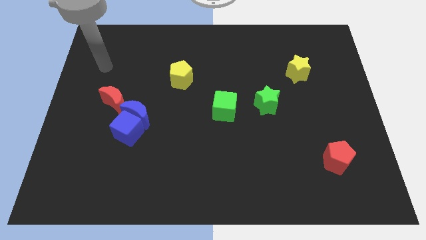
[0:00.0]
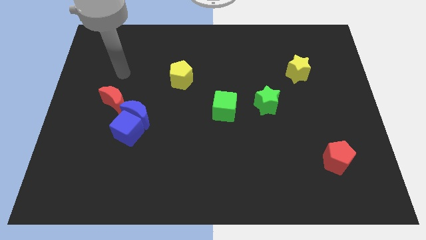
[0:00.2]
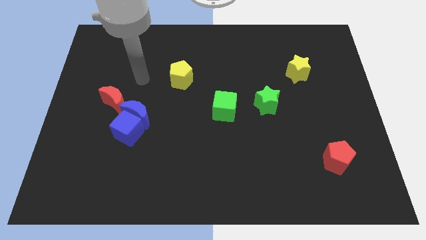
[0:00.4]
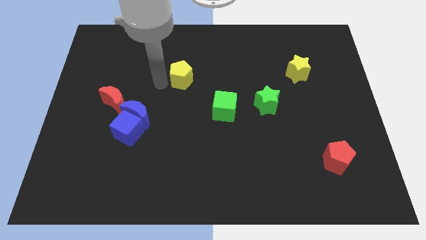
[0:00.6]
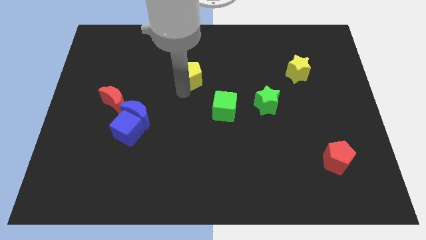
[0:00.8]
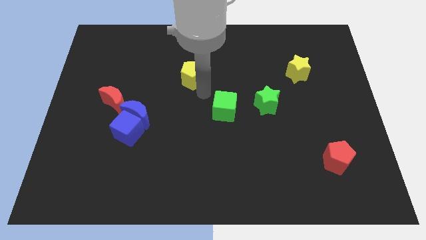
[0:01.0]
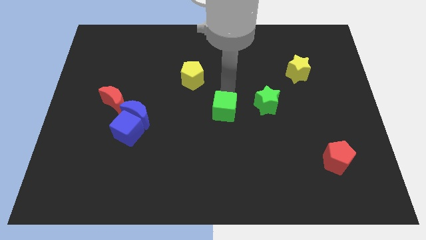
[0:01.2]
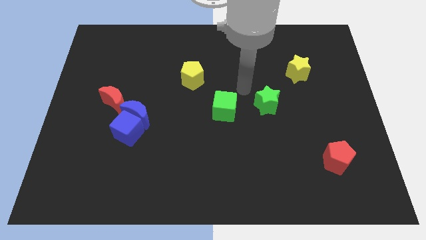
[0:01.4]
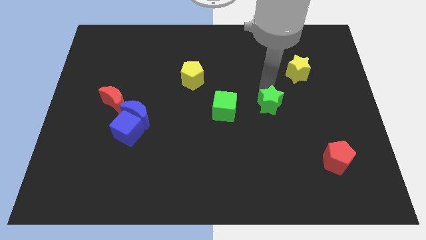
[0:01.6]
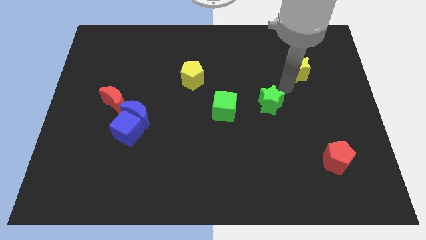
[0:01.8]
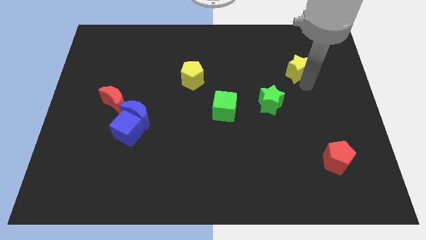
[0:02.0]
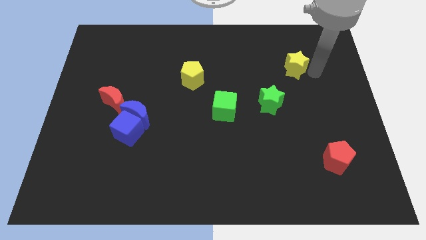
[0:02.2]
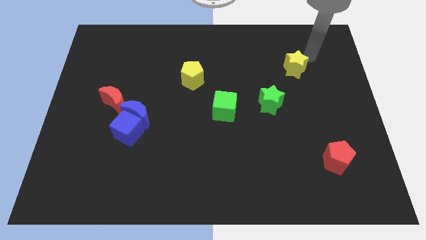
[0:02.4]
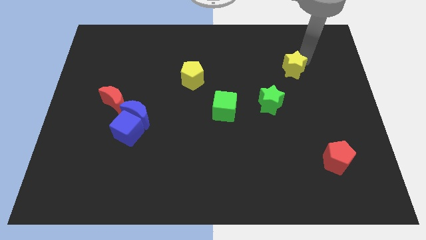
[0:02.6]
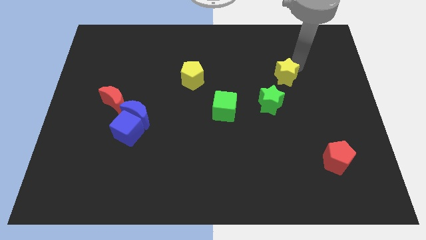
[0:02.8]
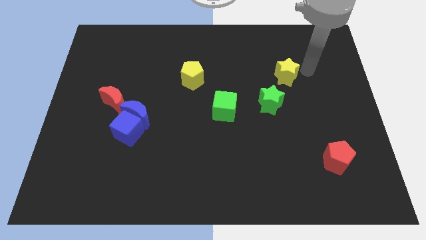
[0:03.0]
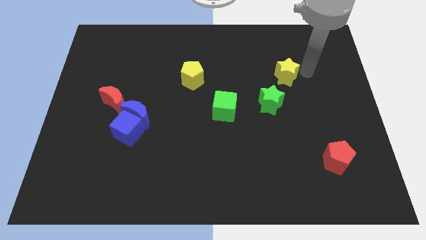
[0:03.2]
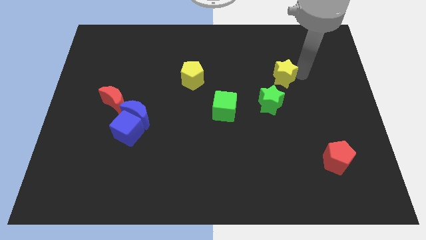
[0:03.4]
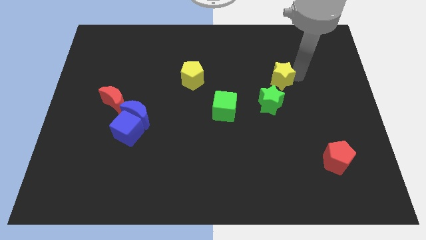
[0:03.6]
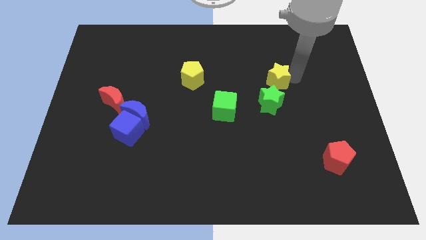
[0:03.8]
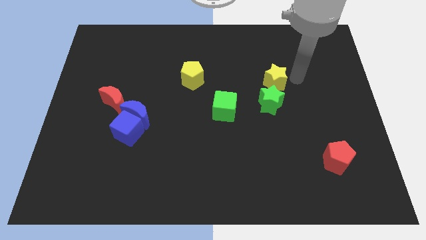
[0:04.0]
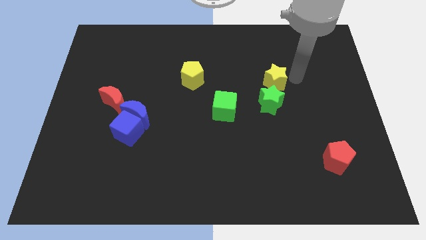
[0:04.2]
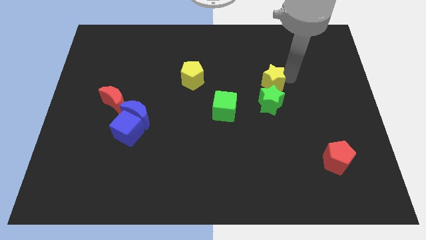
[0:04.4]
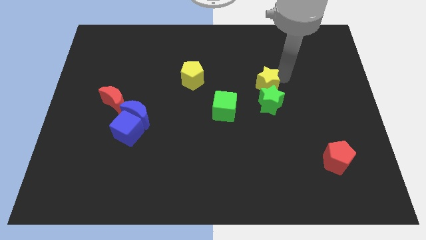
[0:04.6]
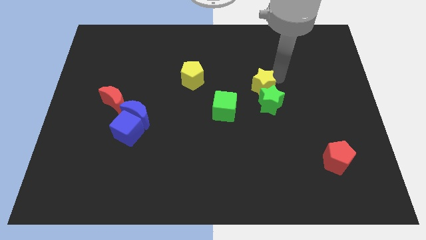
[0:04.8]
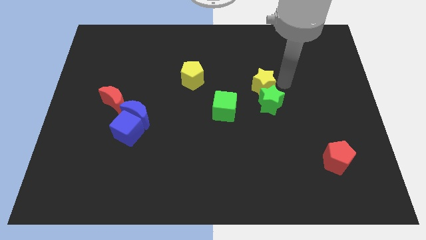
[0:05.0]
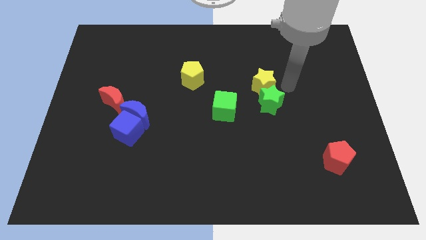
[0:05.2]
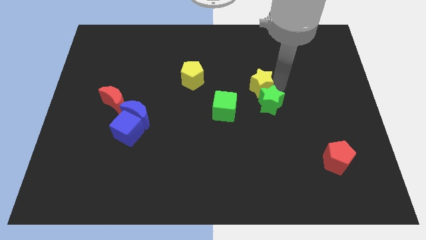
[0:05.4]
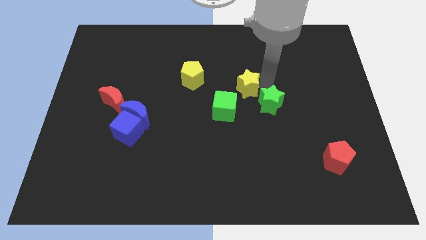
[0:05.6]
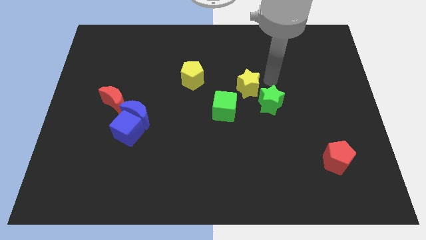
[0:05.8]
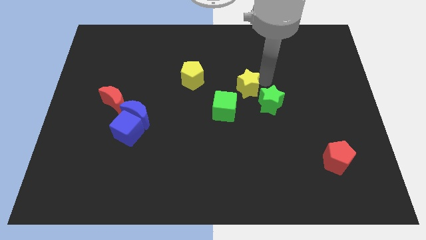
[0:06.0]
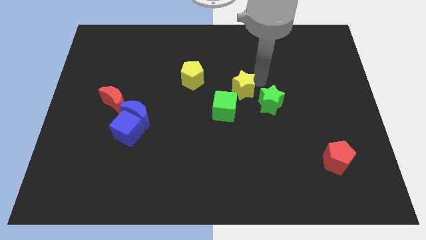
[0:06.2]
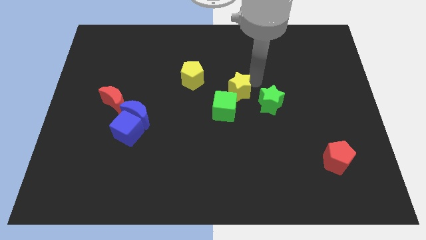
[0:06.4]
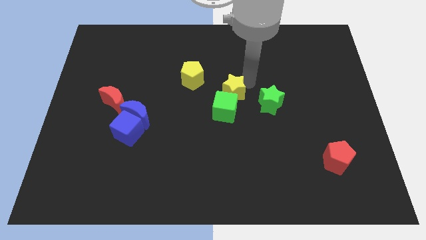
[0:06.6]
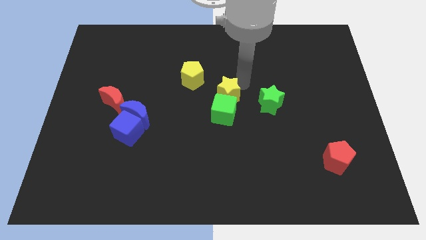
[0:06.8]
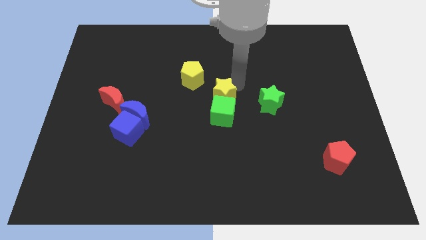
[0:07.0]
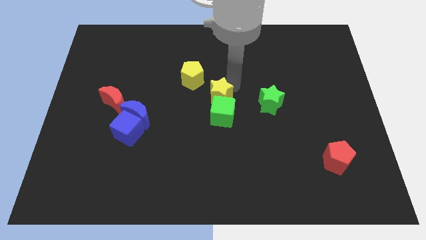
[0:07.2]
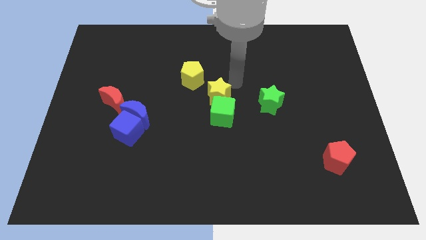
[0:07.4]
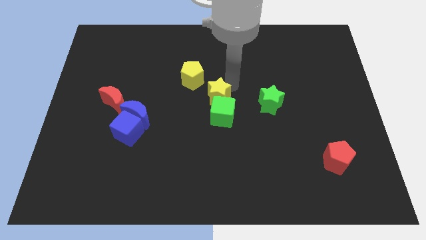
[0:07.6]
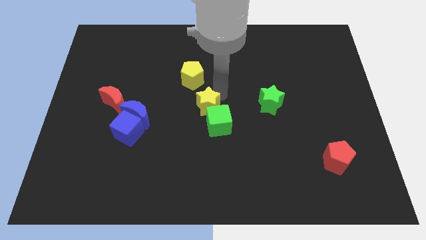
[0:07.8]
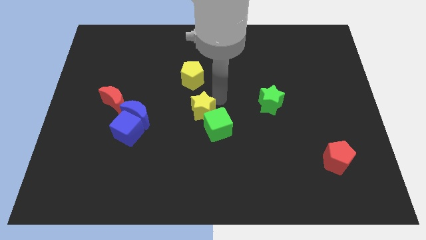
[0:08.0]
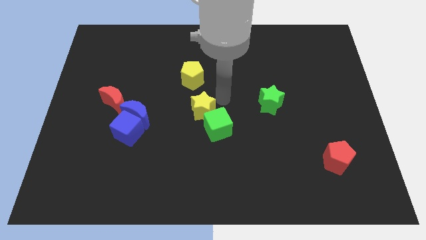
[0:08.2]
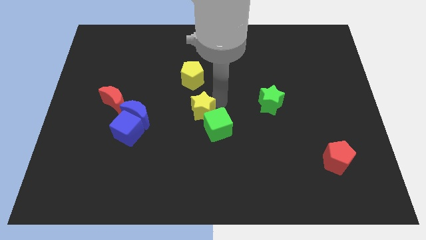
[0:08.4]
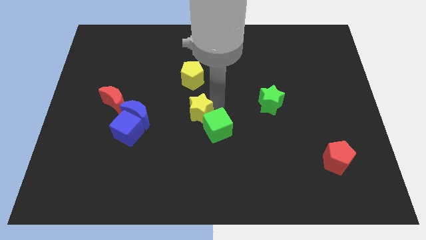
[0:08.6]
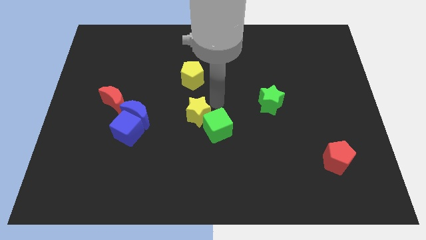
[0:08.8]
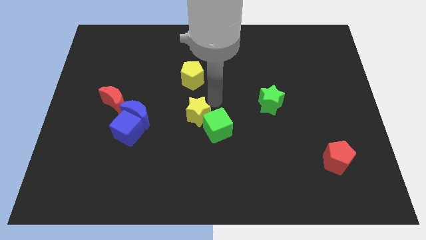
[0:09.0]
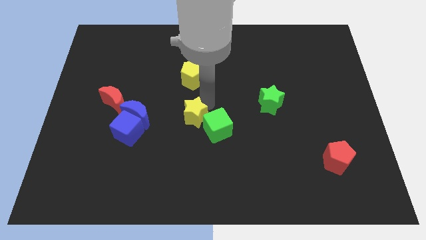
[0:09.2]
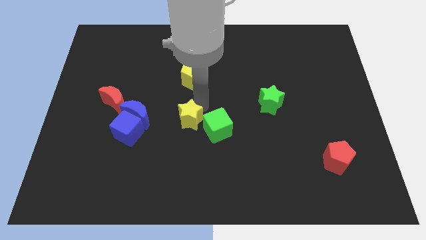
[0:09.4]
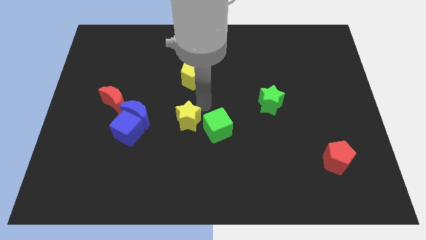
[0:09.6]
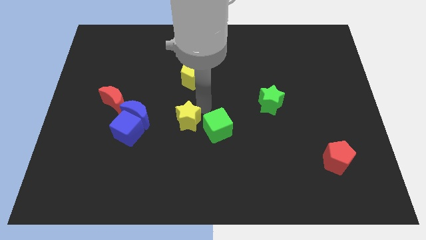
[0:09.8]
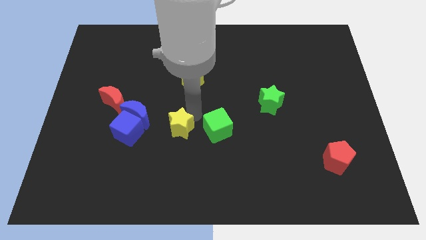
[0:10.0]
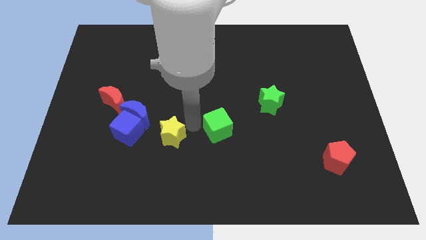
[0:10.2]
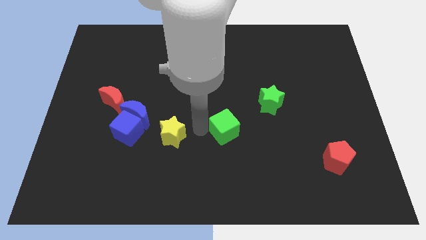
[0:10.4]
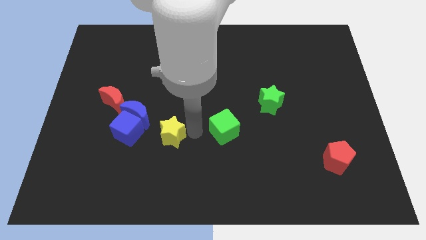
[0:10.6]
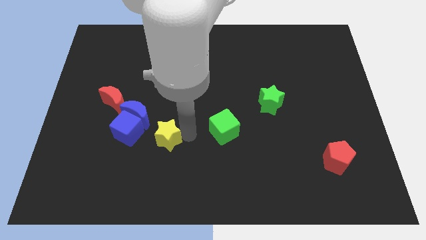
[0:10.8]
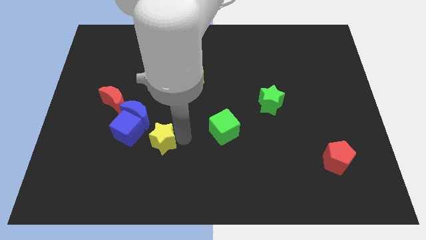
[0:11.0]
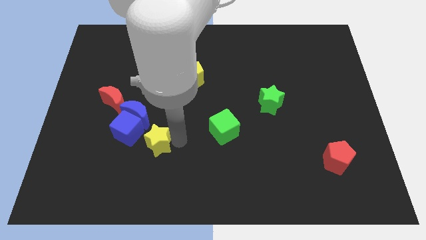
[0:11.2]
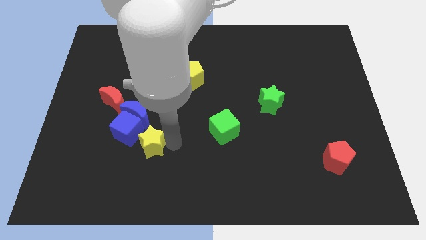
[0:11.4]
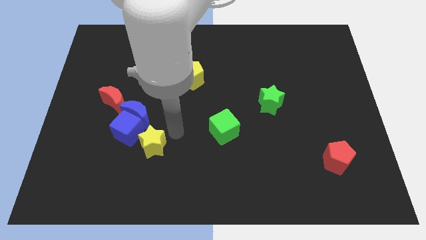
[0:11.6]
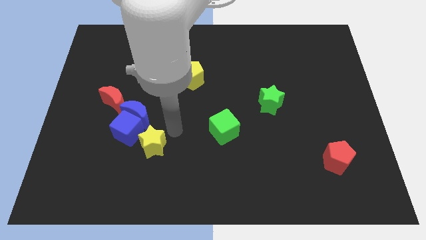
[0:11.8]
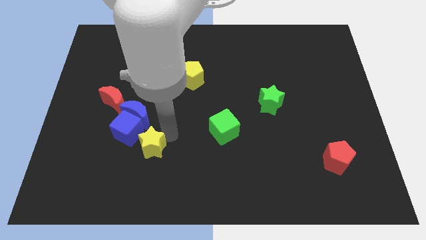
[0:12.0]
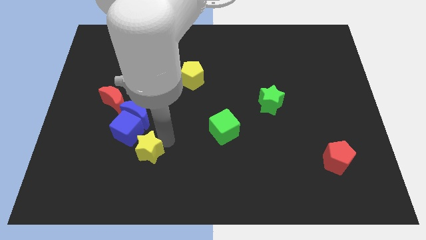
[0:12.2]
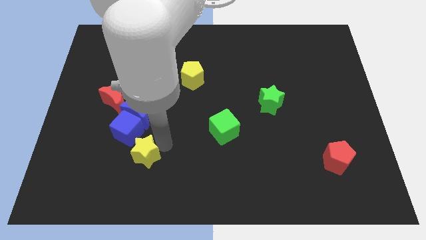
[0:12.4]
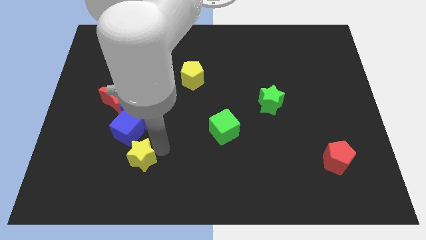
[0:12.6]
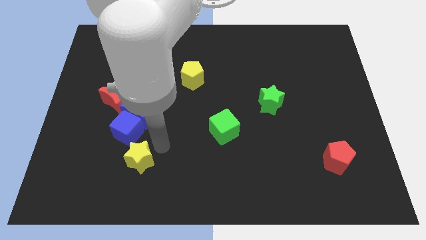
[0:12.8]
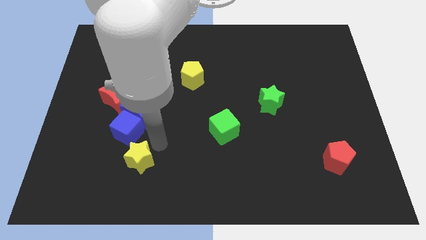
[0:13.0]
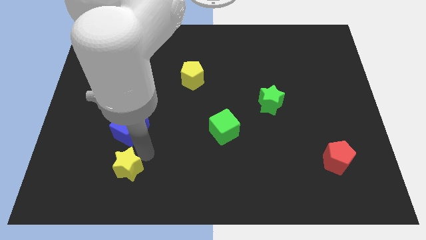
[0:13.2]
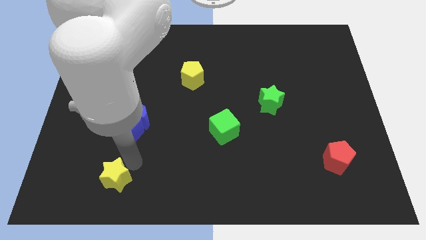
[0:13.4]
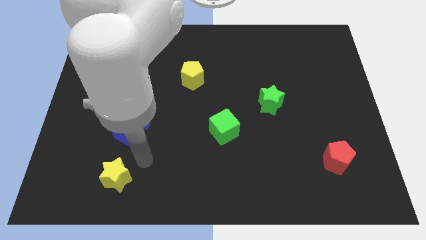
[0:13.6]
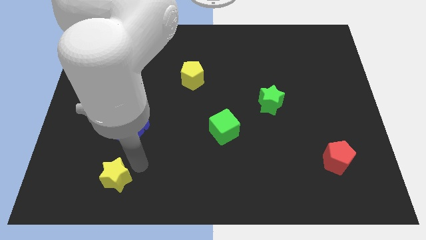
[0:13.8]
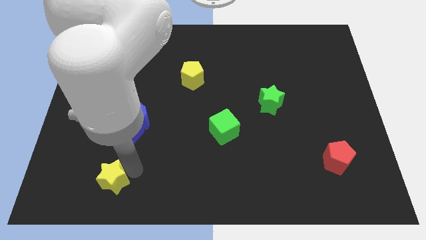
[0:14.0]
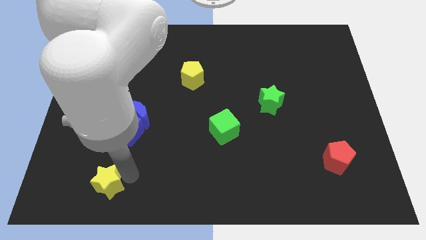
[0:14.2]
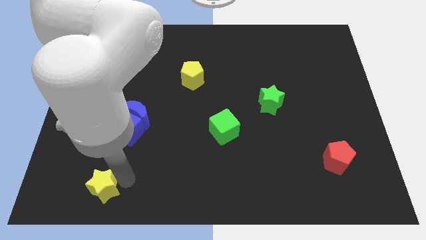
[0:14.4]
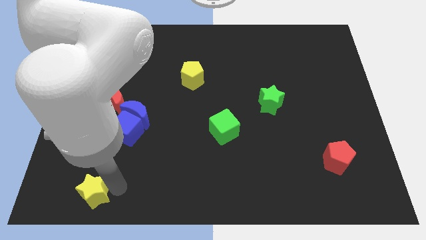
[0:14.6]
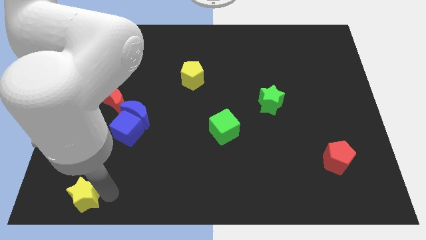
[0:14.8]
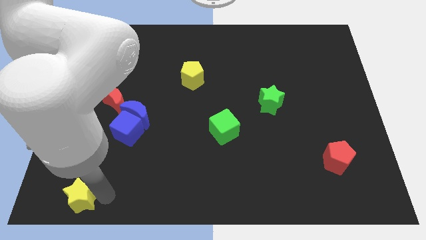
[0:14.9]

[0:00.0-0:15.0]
slide the yellow star to the lower left corner
